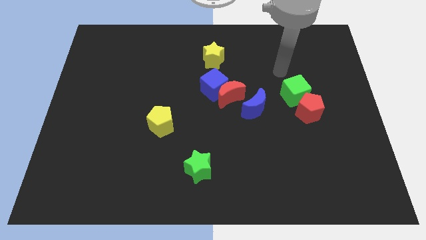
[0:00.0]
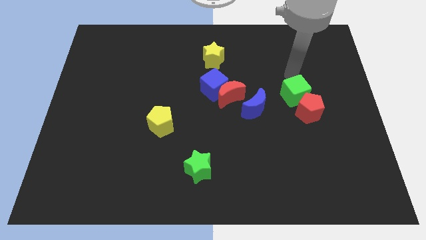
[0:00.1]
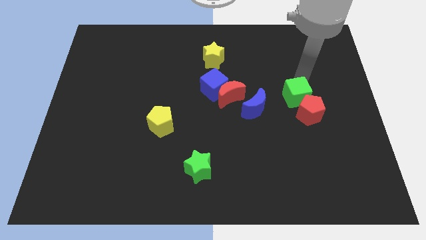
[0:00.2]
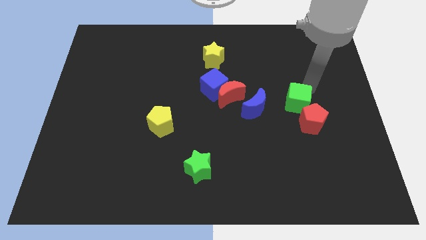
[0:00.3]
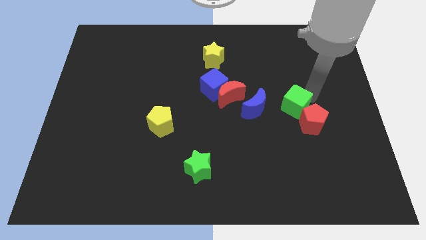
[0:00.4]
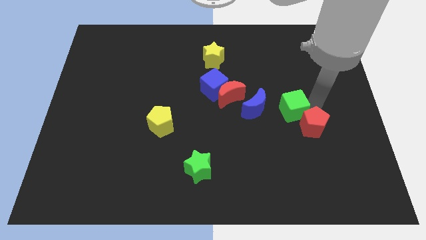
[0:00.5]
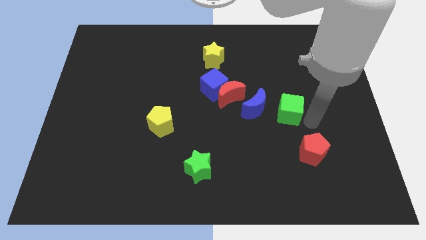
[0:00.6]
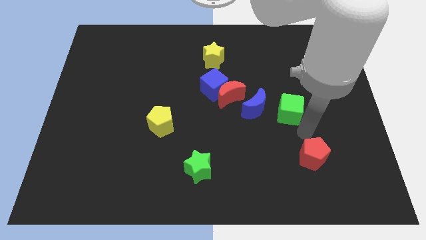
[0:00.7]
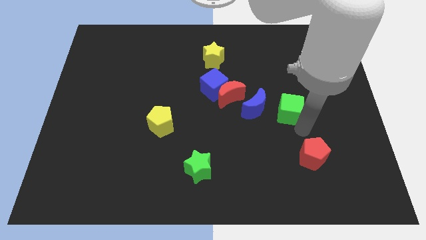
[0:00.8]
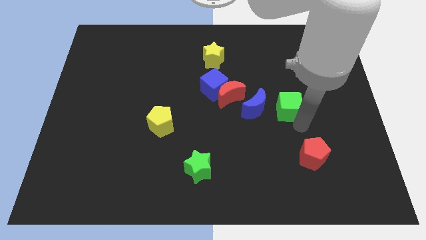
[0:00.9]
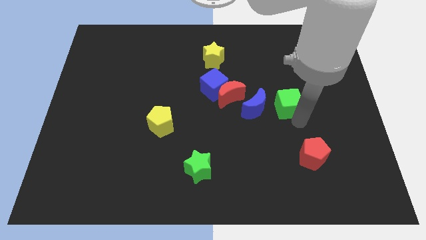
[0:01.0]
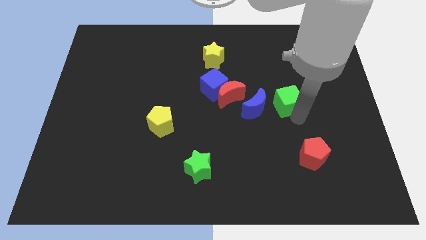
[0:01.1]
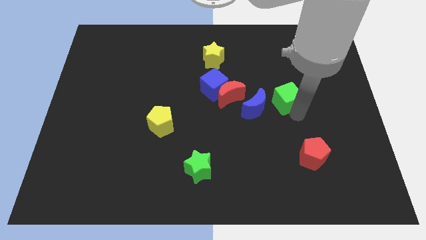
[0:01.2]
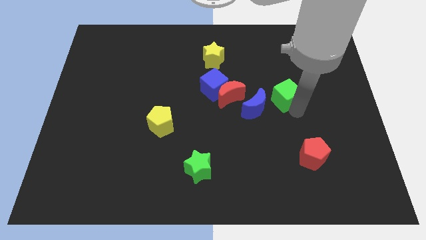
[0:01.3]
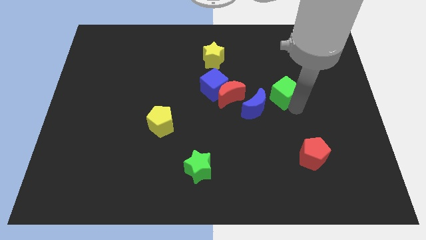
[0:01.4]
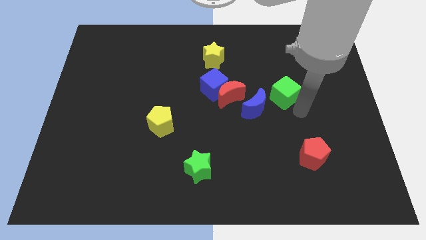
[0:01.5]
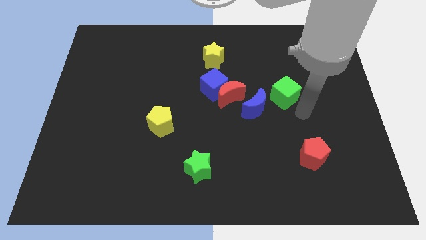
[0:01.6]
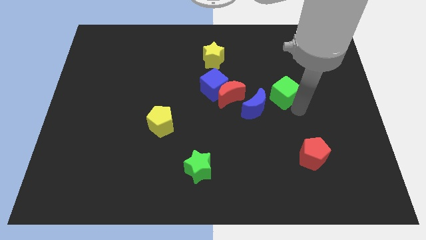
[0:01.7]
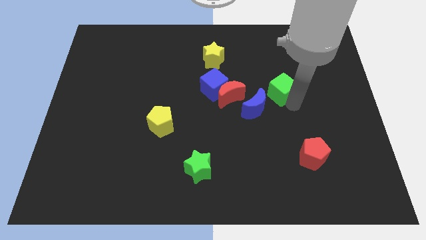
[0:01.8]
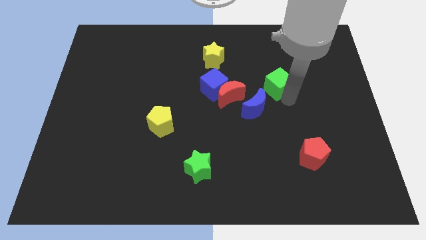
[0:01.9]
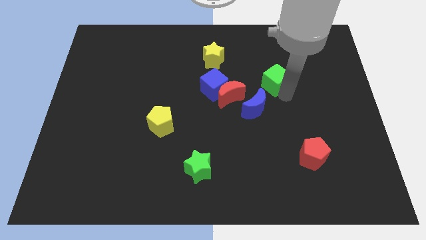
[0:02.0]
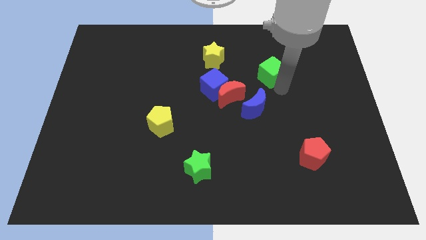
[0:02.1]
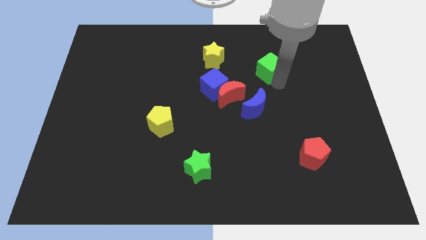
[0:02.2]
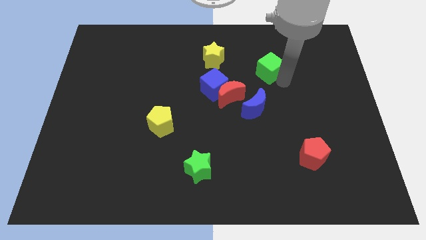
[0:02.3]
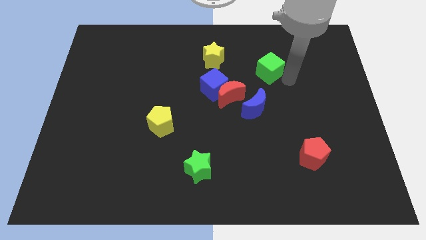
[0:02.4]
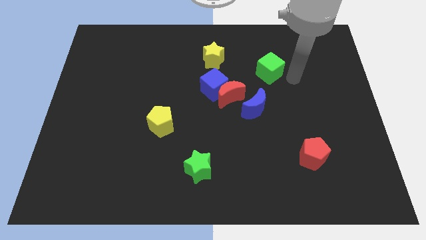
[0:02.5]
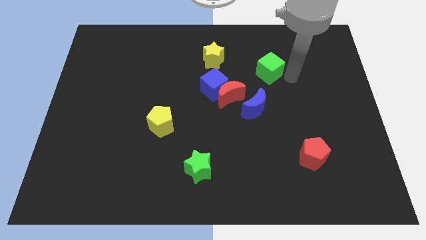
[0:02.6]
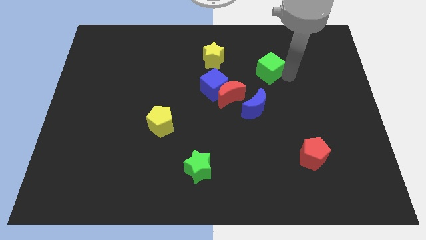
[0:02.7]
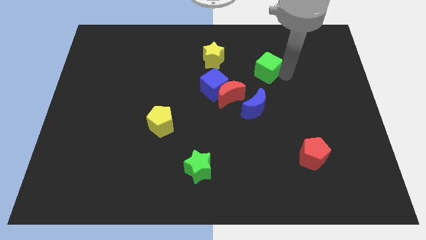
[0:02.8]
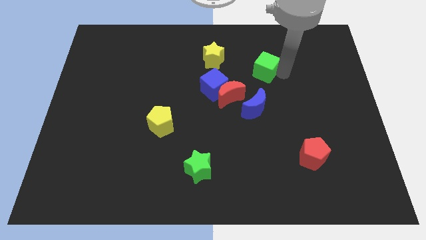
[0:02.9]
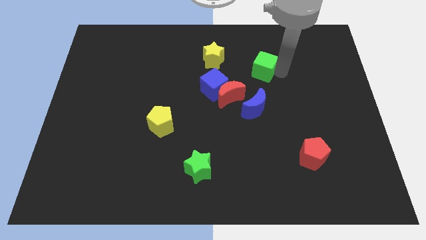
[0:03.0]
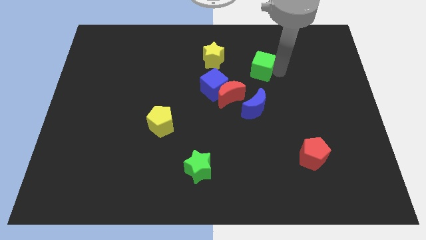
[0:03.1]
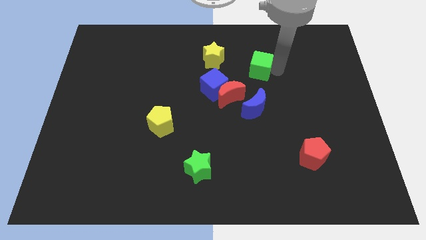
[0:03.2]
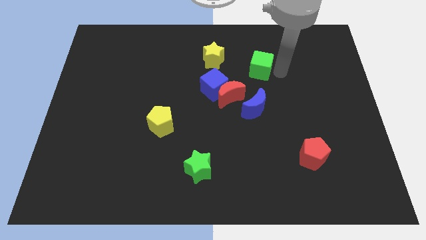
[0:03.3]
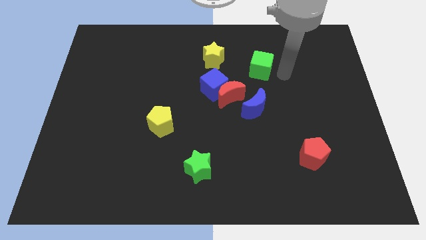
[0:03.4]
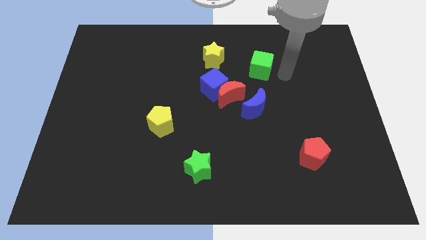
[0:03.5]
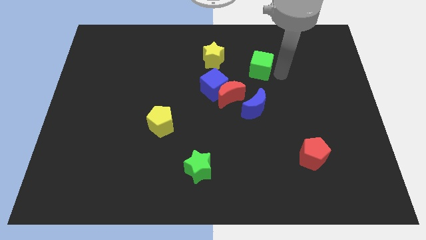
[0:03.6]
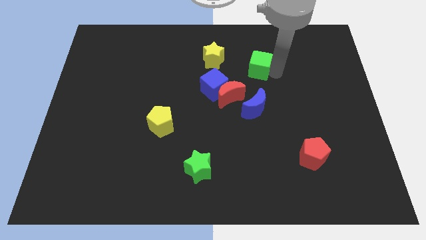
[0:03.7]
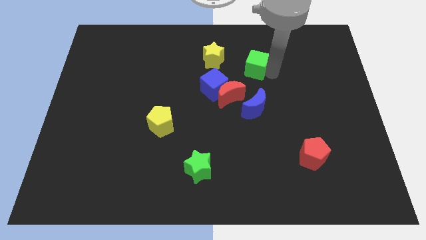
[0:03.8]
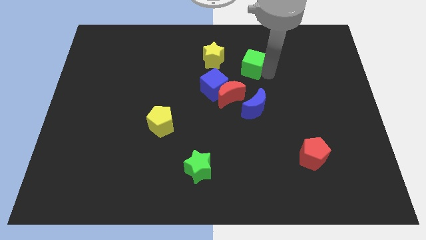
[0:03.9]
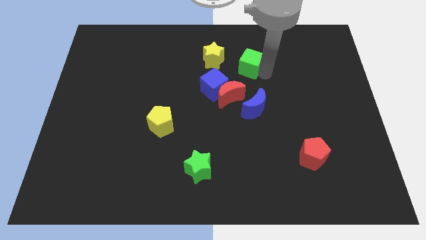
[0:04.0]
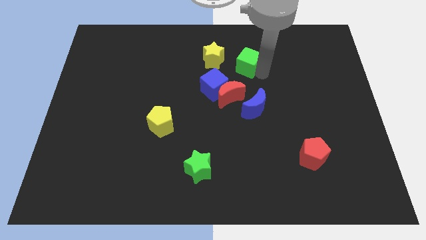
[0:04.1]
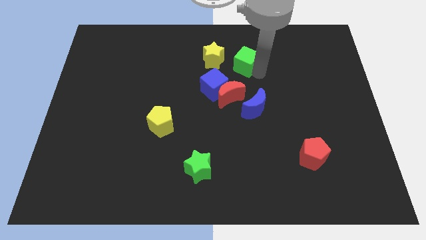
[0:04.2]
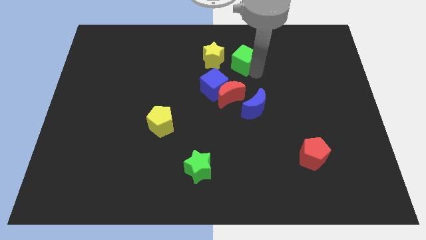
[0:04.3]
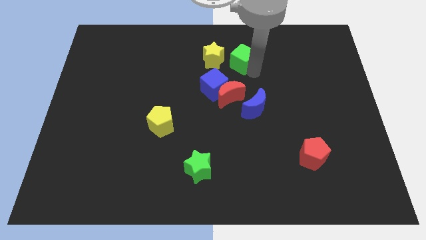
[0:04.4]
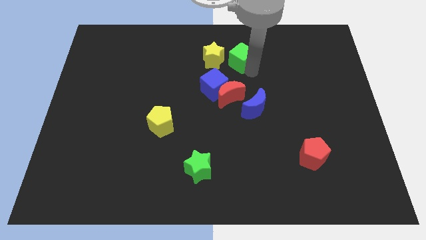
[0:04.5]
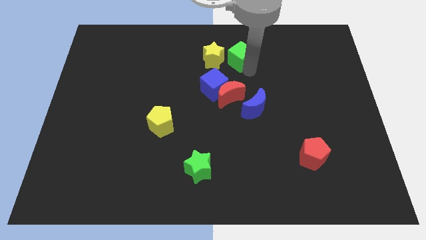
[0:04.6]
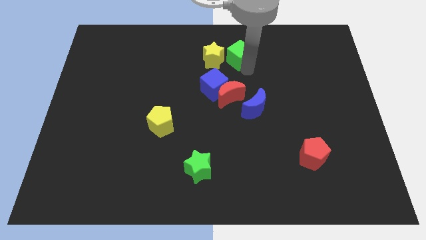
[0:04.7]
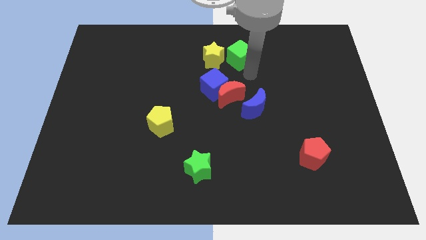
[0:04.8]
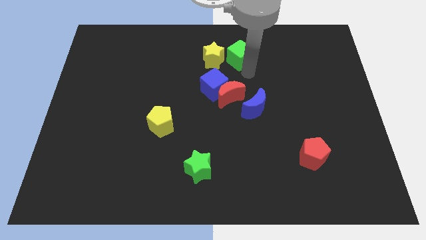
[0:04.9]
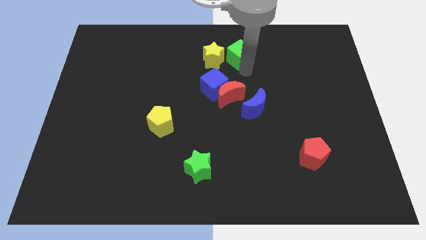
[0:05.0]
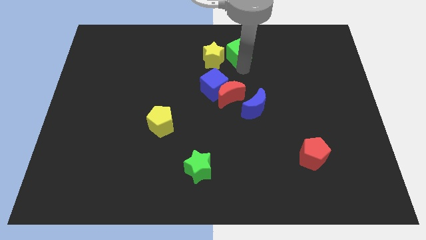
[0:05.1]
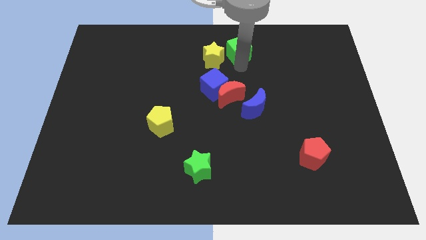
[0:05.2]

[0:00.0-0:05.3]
move the green cube to the top

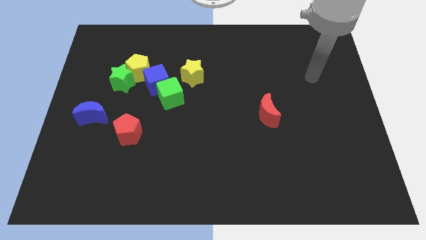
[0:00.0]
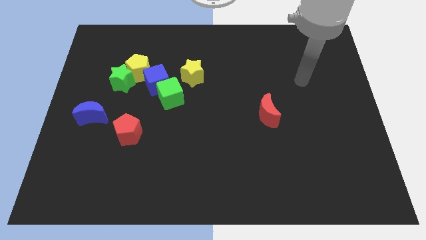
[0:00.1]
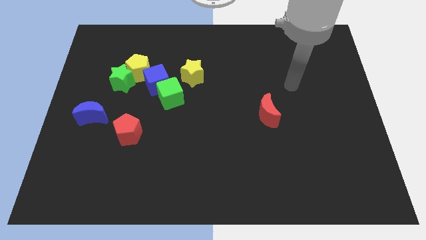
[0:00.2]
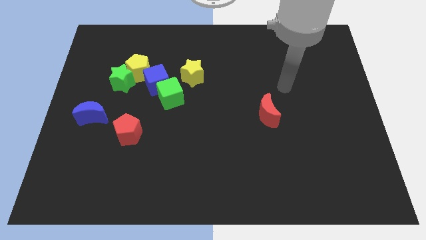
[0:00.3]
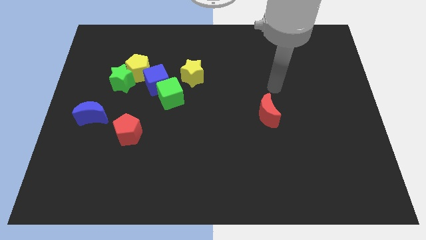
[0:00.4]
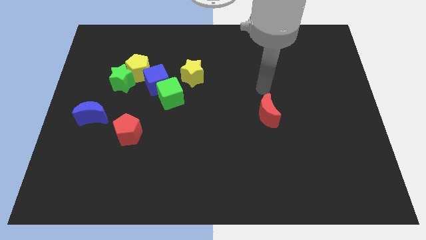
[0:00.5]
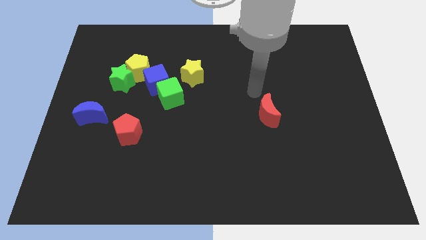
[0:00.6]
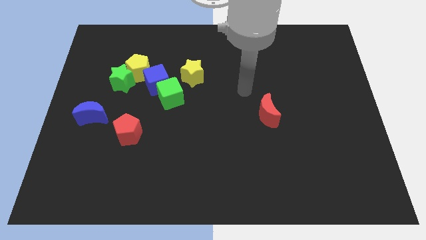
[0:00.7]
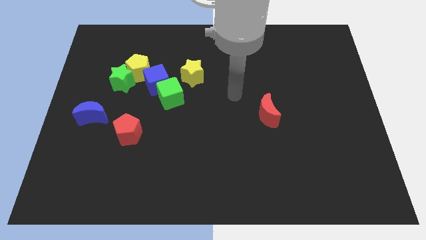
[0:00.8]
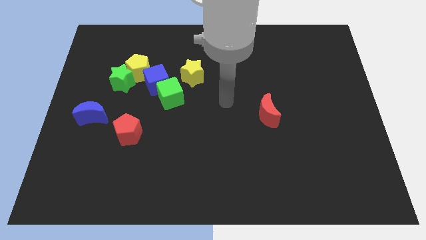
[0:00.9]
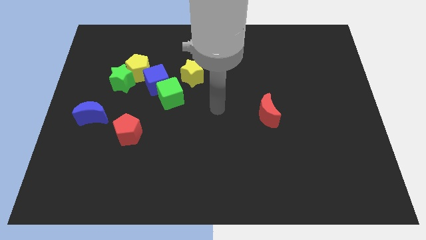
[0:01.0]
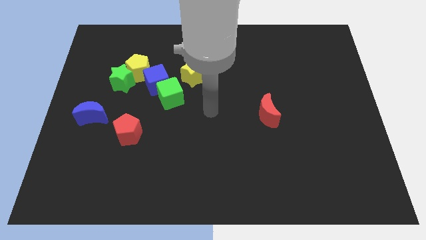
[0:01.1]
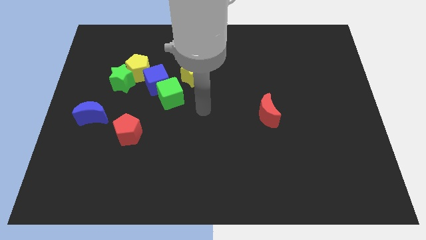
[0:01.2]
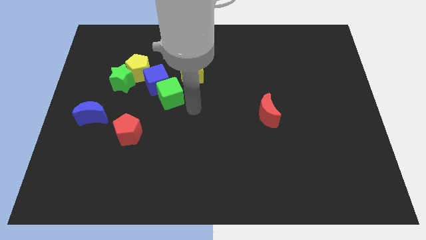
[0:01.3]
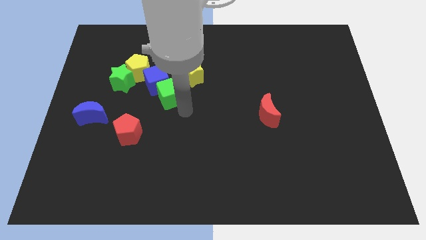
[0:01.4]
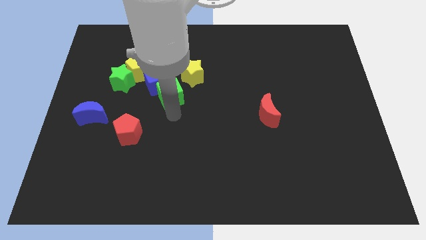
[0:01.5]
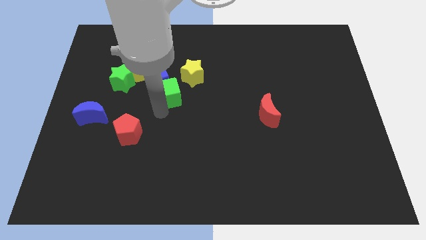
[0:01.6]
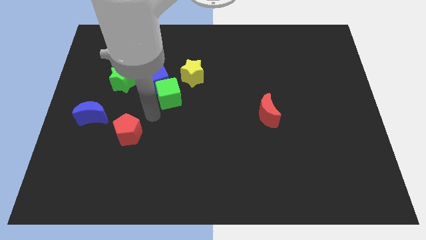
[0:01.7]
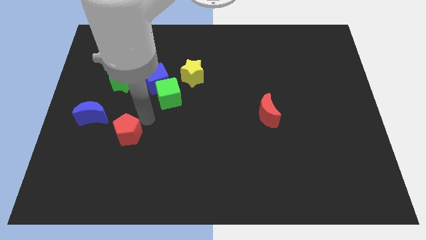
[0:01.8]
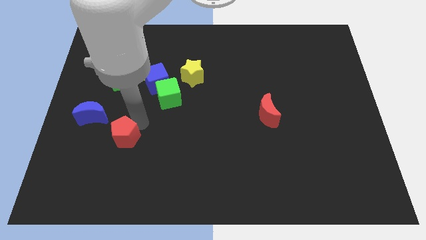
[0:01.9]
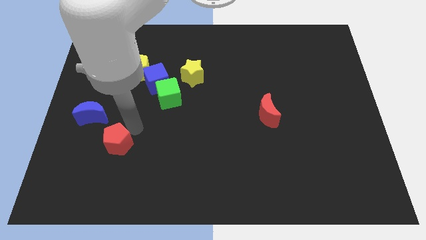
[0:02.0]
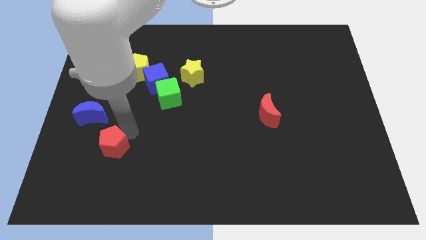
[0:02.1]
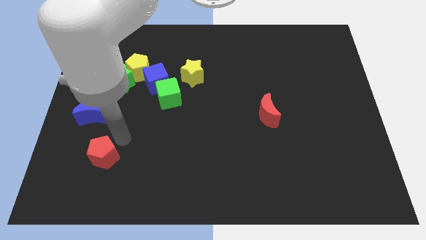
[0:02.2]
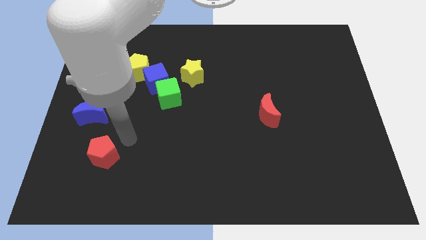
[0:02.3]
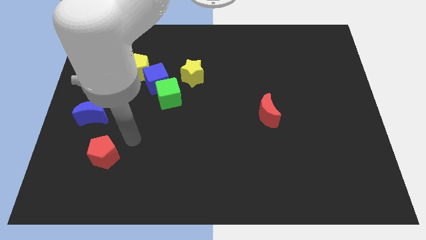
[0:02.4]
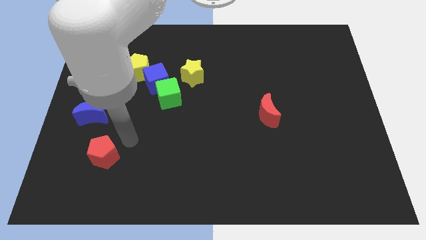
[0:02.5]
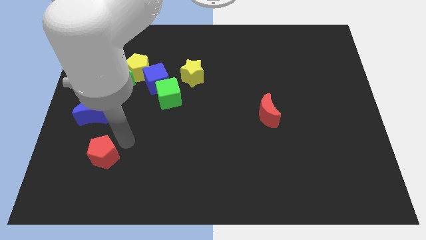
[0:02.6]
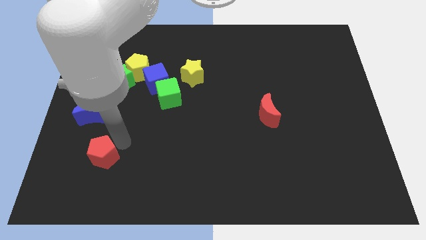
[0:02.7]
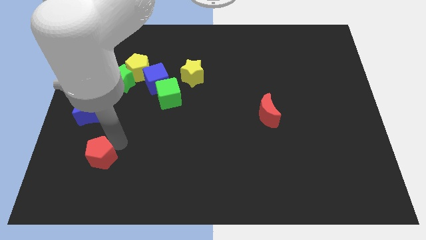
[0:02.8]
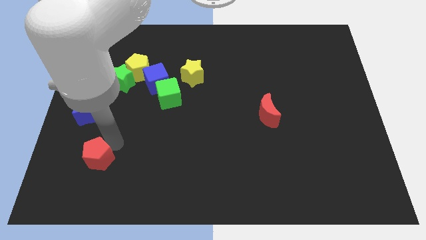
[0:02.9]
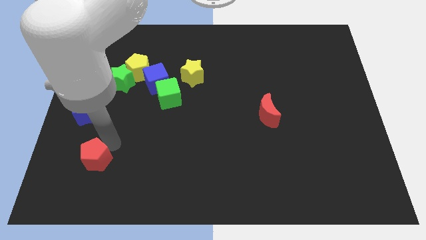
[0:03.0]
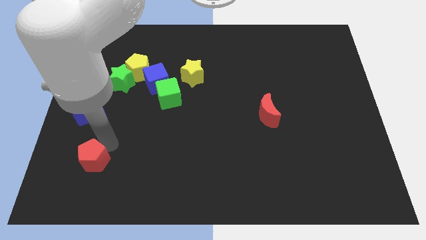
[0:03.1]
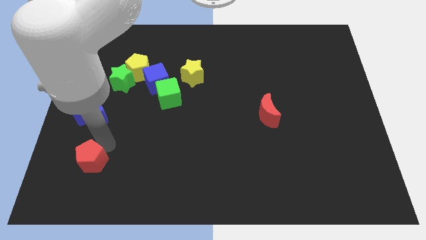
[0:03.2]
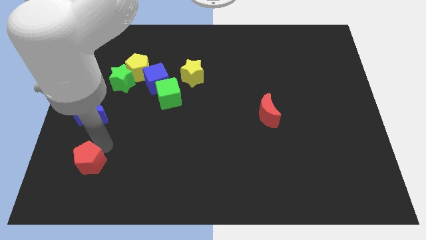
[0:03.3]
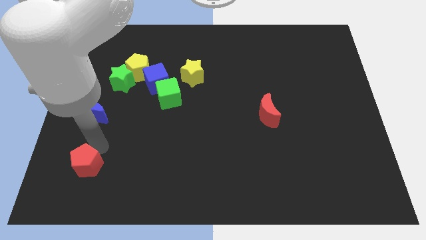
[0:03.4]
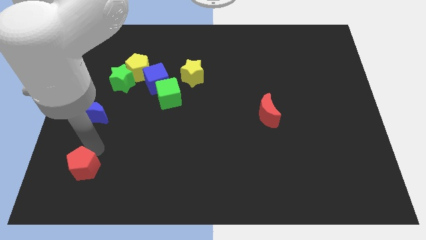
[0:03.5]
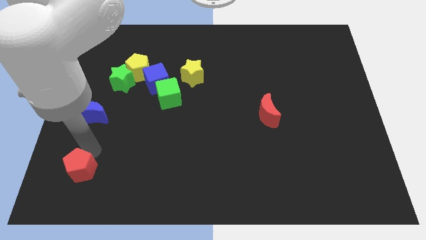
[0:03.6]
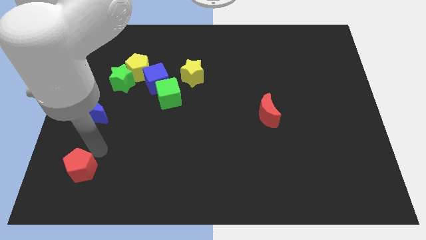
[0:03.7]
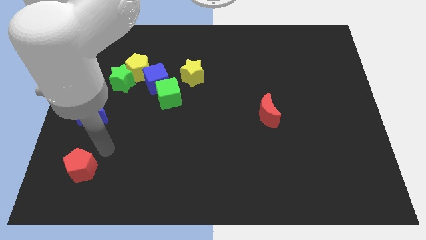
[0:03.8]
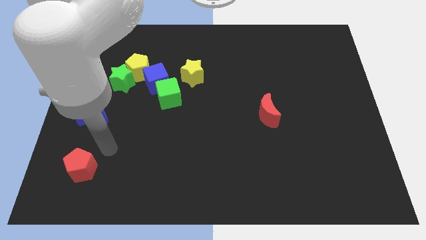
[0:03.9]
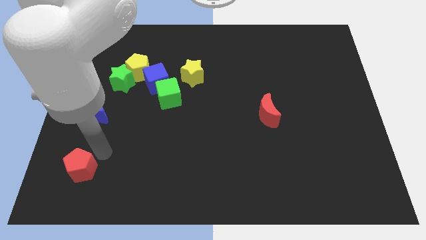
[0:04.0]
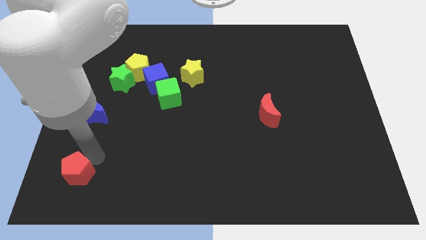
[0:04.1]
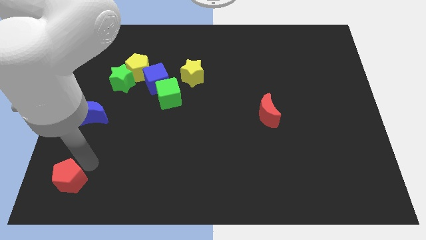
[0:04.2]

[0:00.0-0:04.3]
put the red pentagon to the lower left corner
